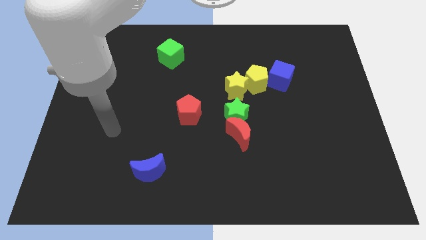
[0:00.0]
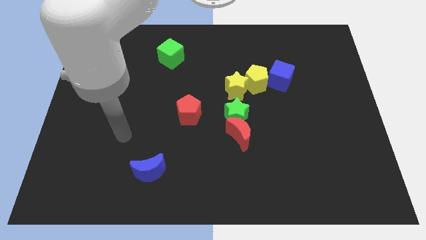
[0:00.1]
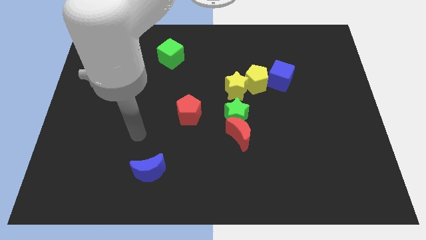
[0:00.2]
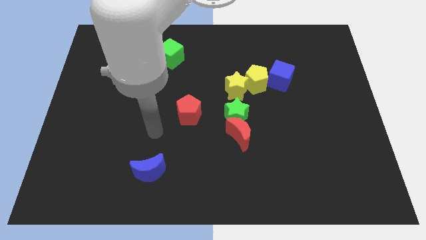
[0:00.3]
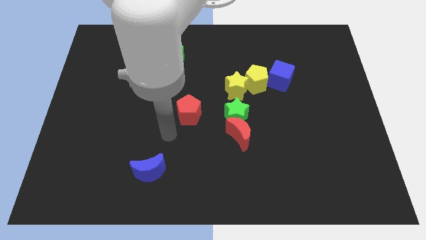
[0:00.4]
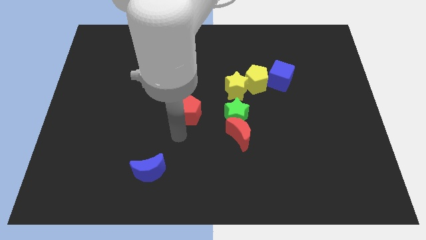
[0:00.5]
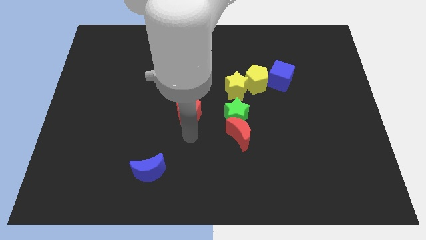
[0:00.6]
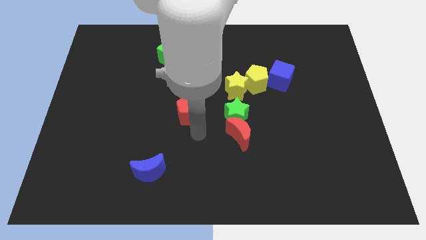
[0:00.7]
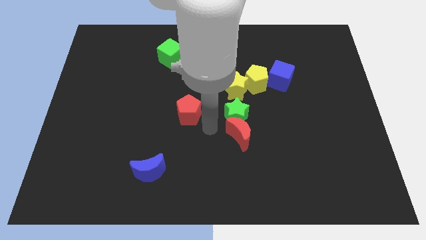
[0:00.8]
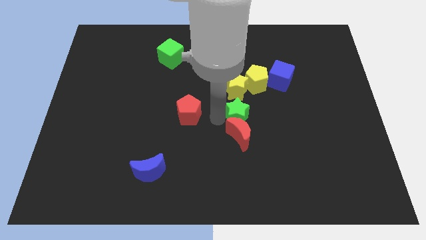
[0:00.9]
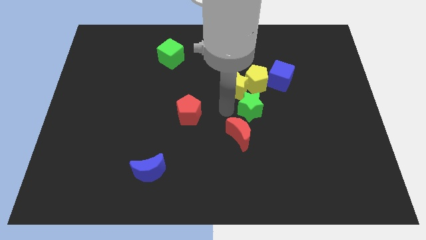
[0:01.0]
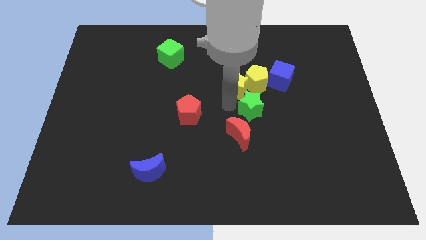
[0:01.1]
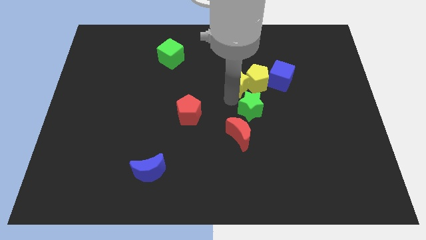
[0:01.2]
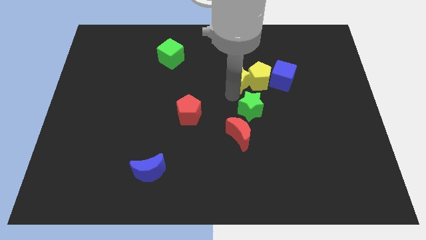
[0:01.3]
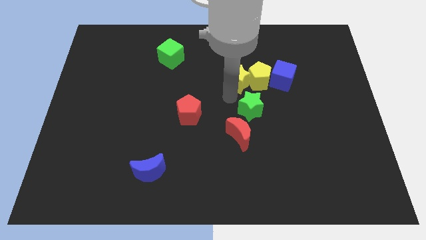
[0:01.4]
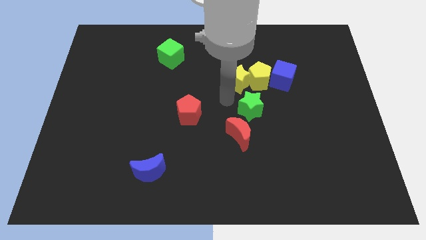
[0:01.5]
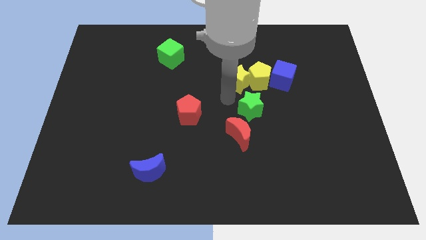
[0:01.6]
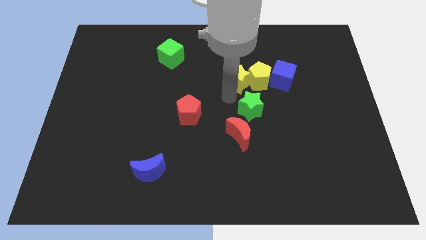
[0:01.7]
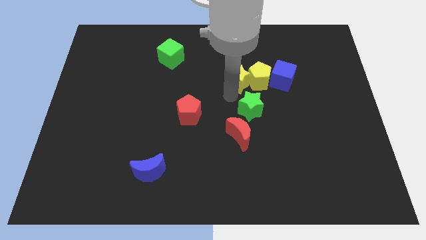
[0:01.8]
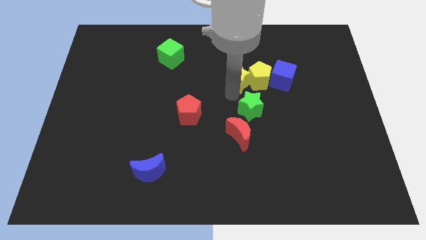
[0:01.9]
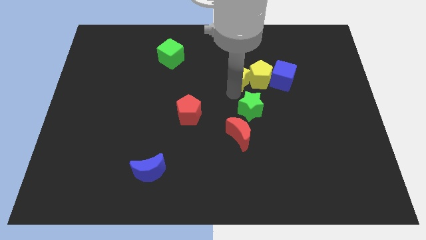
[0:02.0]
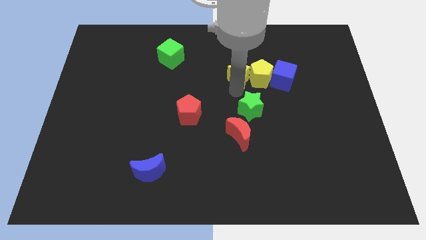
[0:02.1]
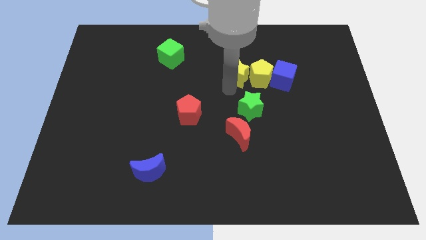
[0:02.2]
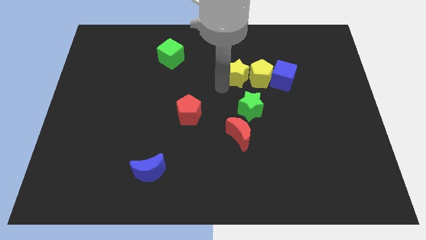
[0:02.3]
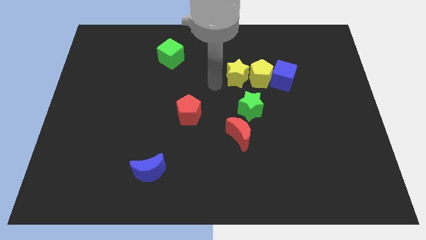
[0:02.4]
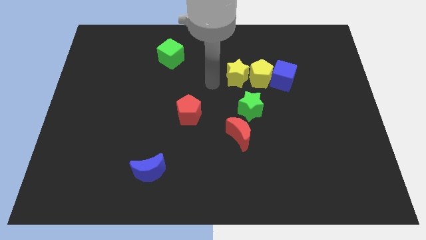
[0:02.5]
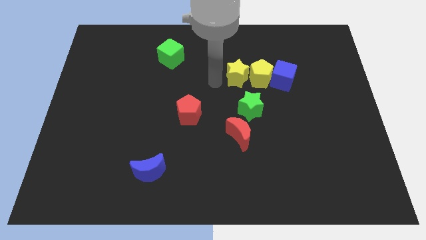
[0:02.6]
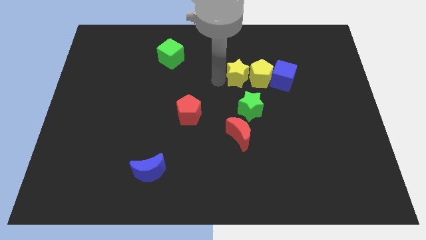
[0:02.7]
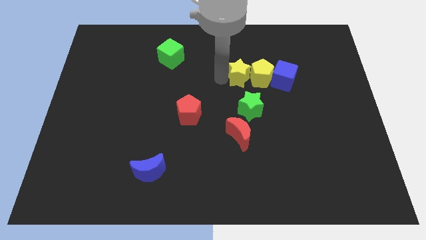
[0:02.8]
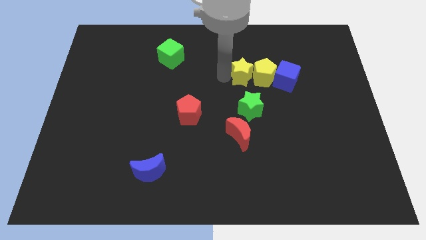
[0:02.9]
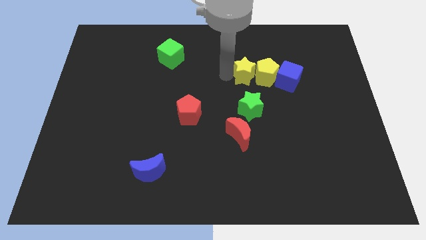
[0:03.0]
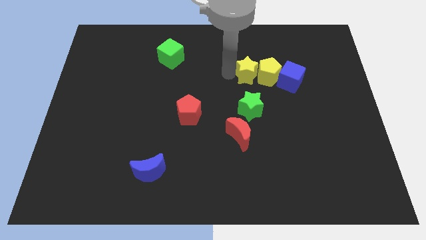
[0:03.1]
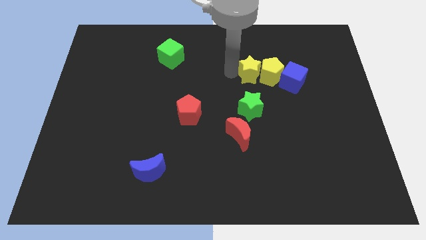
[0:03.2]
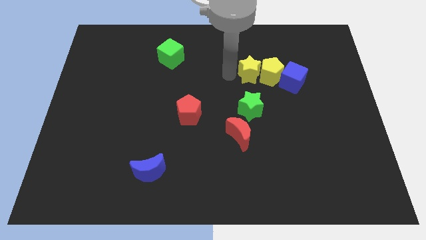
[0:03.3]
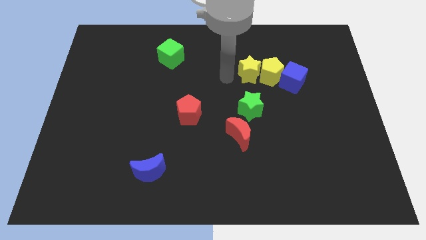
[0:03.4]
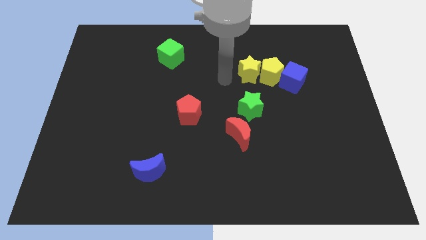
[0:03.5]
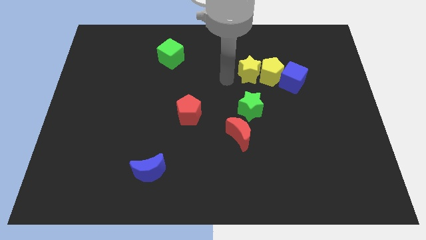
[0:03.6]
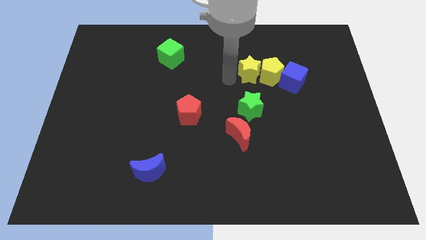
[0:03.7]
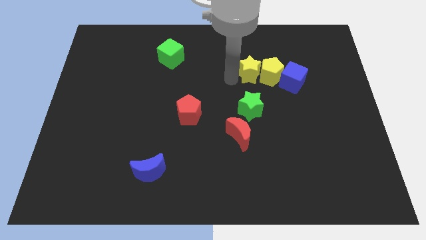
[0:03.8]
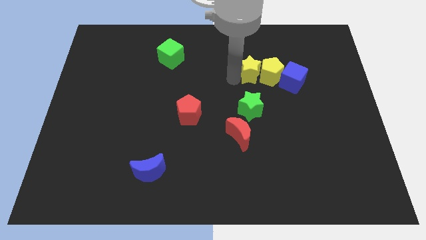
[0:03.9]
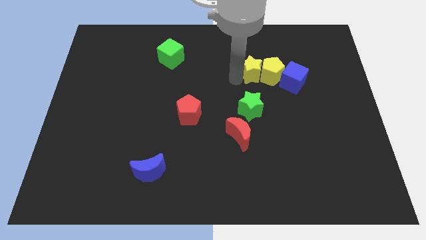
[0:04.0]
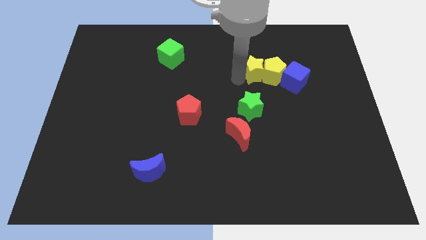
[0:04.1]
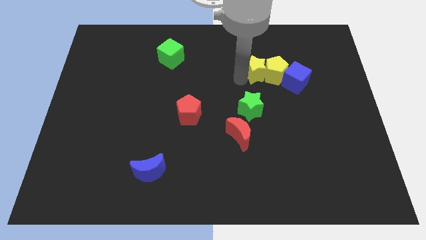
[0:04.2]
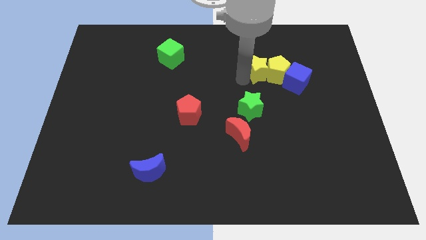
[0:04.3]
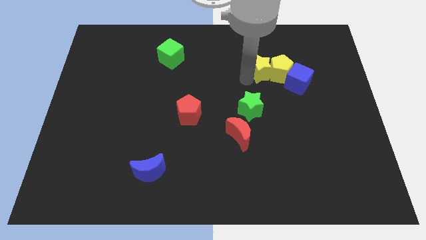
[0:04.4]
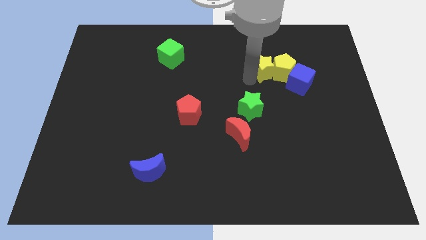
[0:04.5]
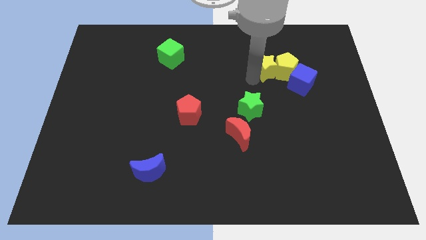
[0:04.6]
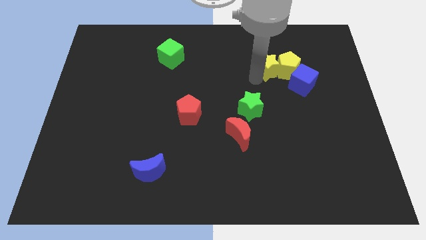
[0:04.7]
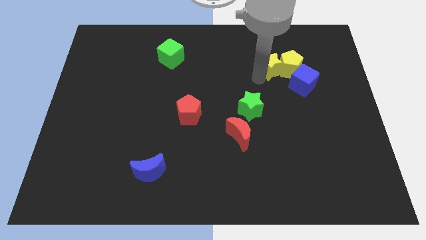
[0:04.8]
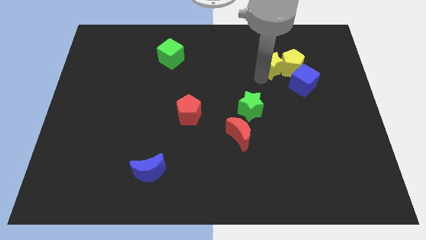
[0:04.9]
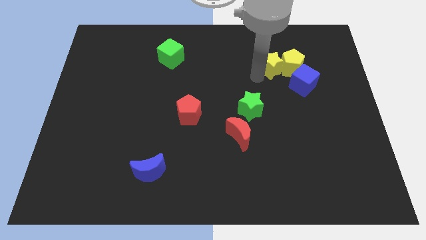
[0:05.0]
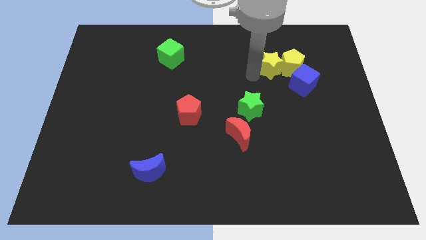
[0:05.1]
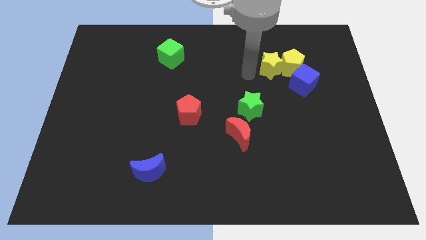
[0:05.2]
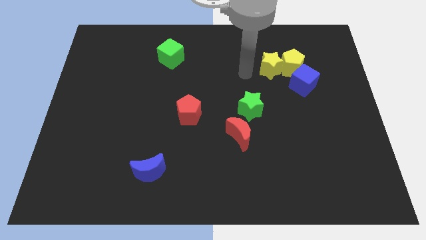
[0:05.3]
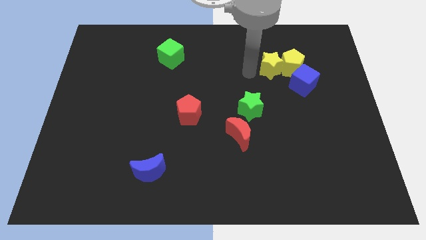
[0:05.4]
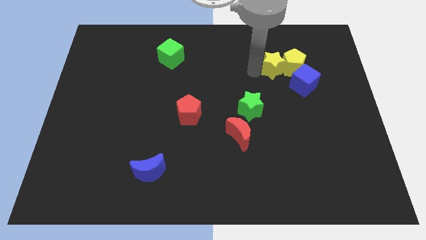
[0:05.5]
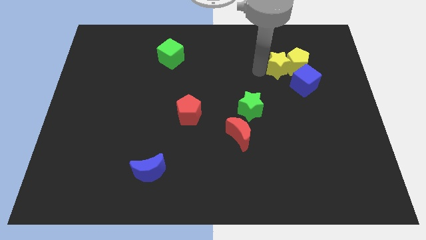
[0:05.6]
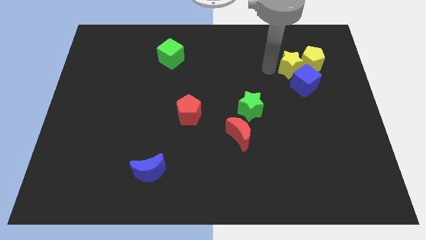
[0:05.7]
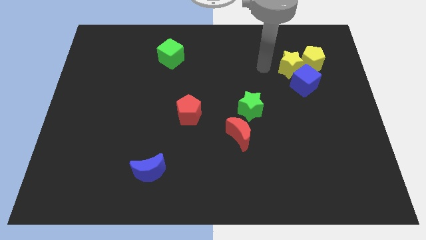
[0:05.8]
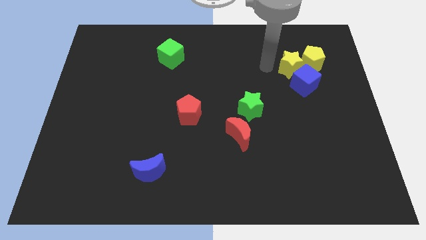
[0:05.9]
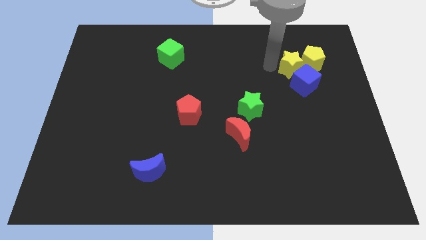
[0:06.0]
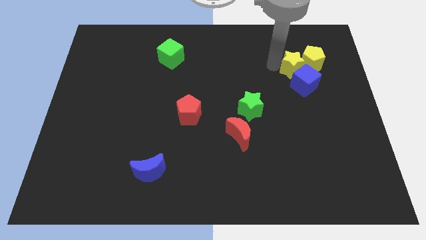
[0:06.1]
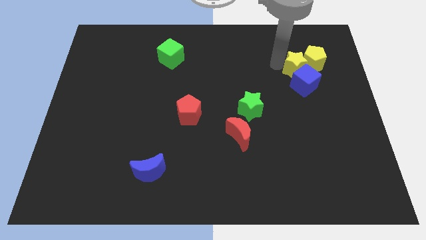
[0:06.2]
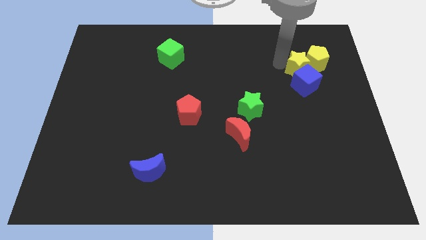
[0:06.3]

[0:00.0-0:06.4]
push the yellow star diagonally up and to the right of the blue cube
